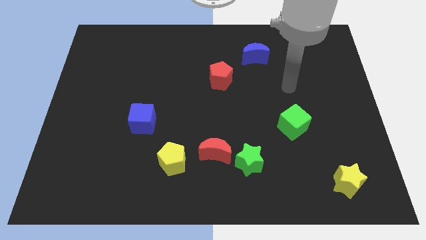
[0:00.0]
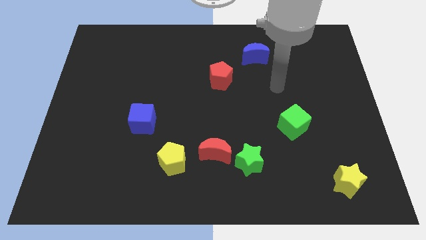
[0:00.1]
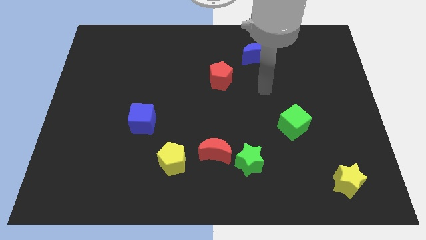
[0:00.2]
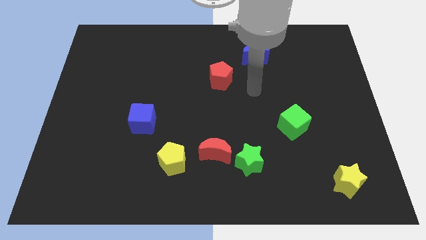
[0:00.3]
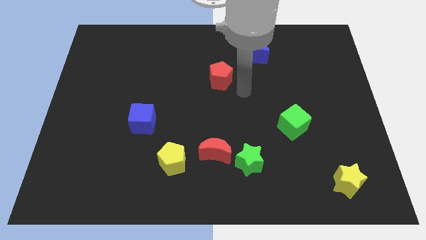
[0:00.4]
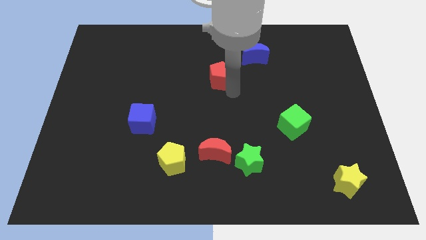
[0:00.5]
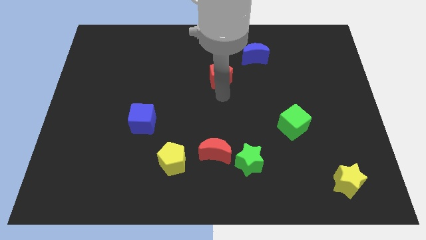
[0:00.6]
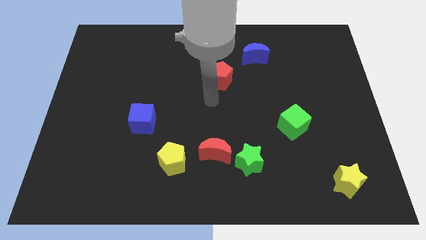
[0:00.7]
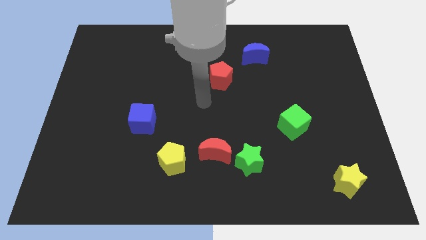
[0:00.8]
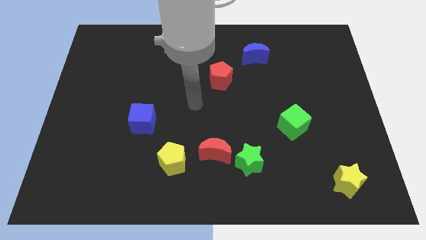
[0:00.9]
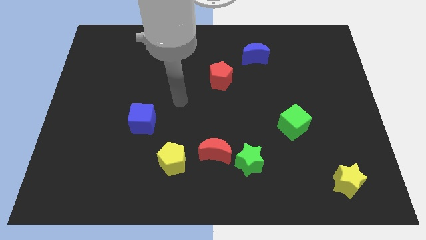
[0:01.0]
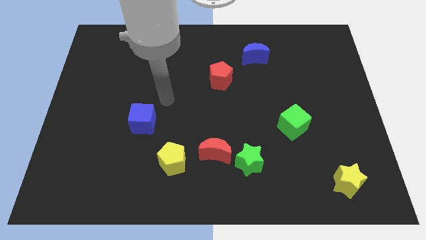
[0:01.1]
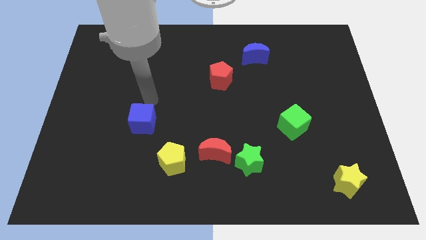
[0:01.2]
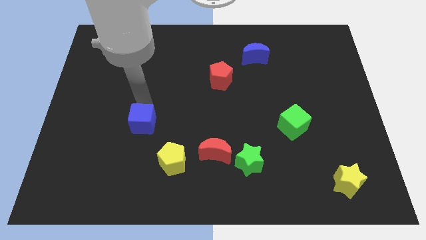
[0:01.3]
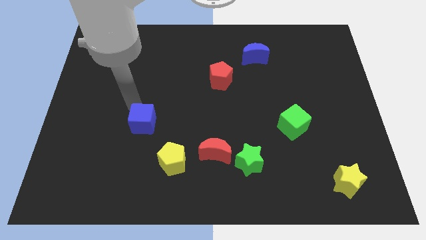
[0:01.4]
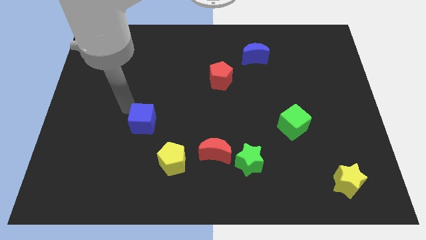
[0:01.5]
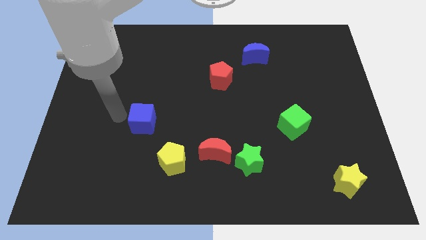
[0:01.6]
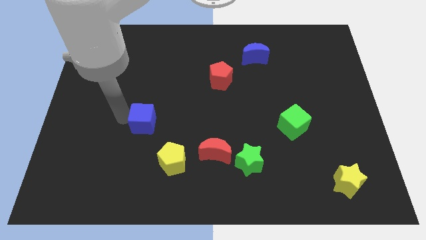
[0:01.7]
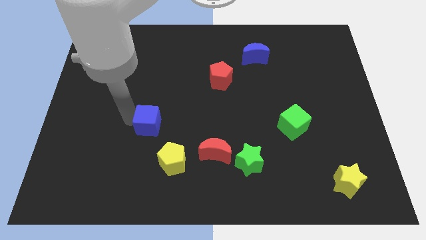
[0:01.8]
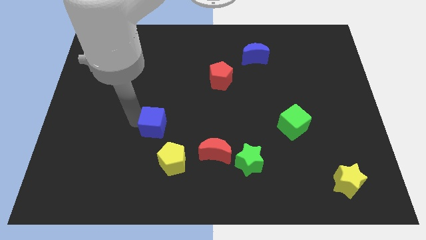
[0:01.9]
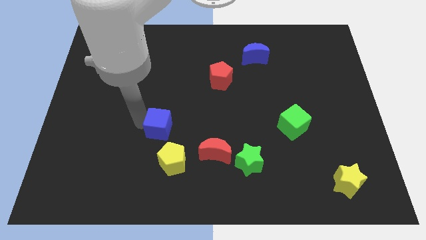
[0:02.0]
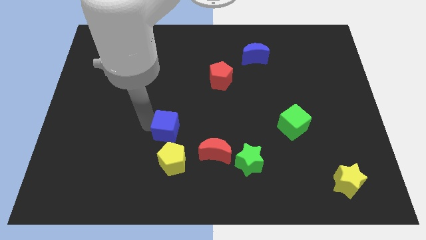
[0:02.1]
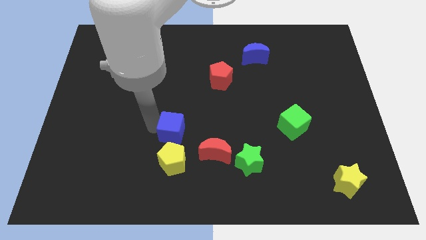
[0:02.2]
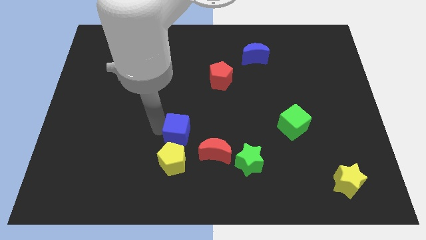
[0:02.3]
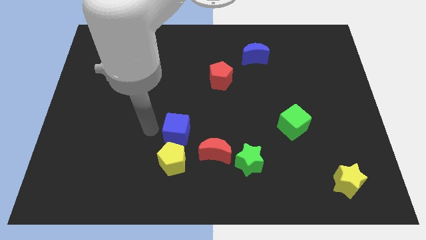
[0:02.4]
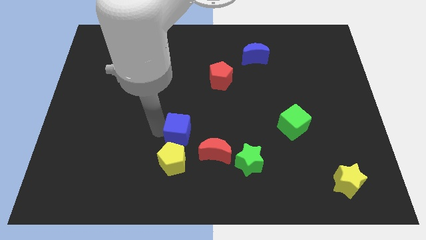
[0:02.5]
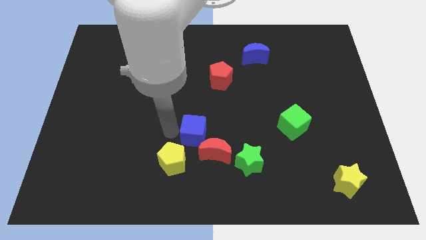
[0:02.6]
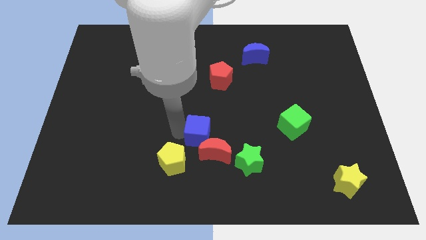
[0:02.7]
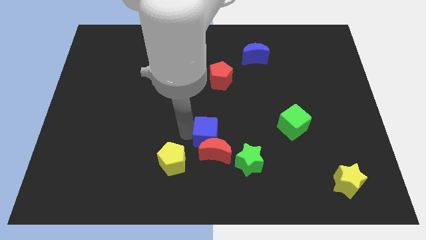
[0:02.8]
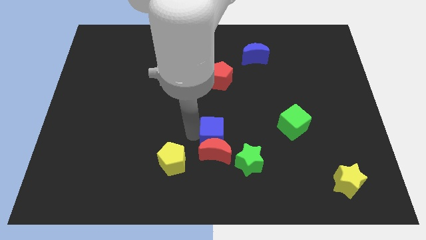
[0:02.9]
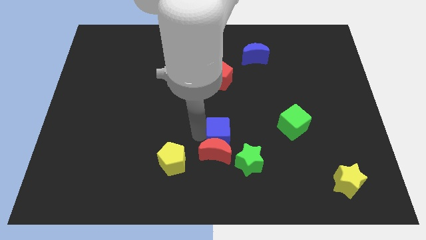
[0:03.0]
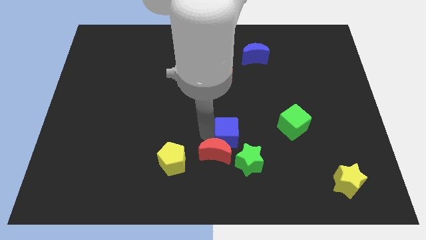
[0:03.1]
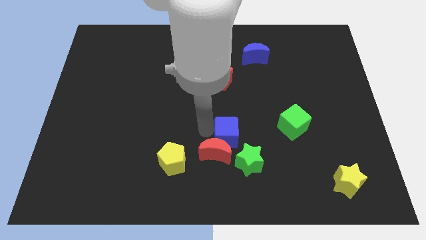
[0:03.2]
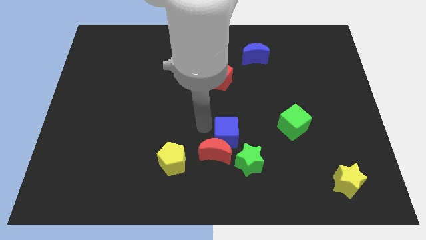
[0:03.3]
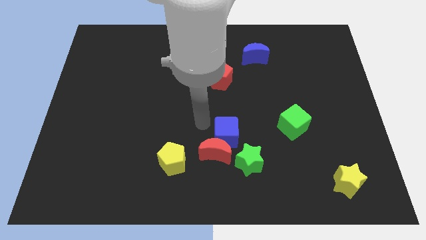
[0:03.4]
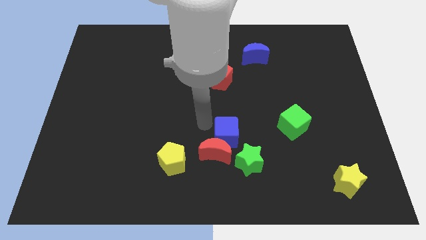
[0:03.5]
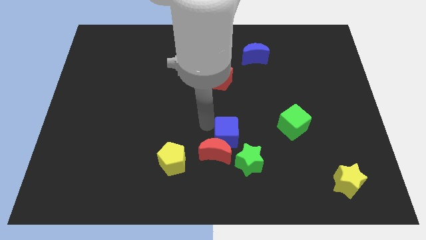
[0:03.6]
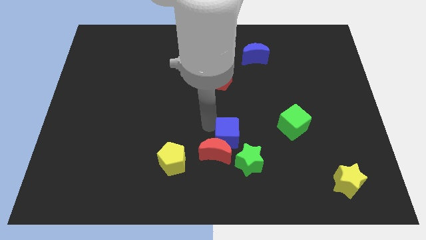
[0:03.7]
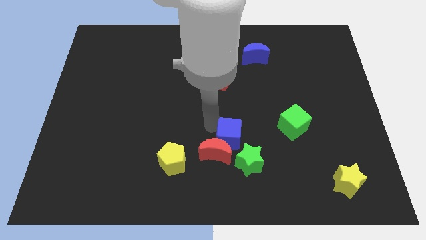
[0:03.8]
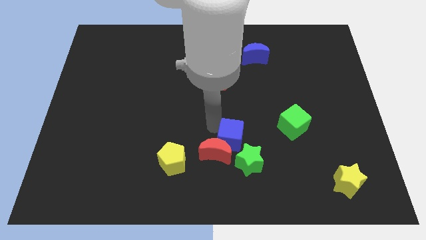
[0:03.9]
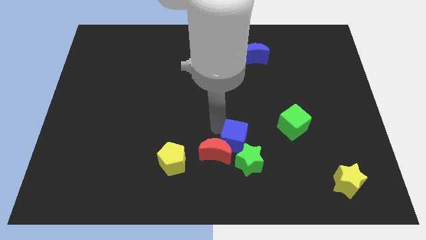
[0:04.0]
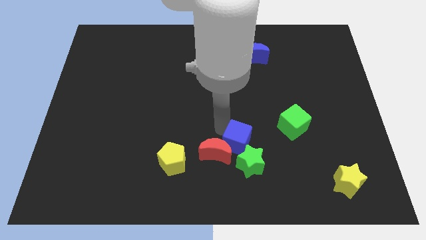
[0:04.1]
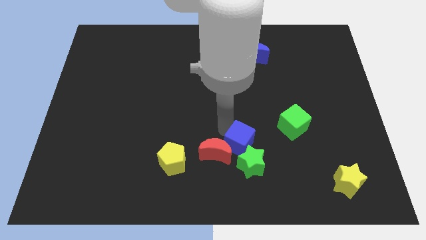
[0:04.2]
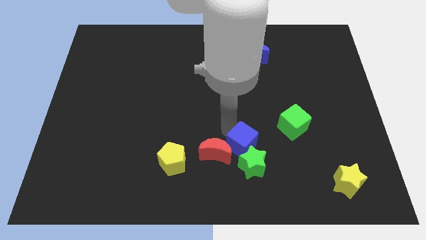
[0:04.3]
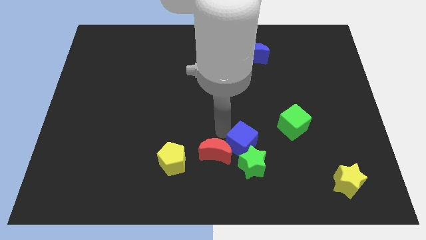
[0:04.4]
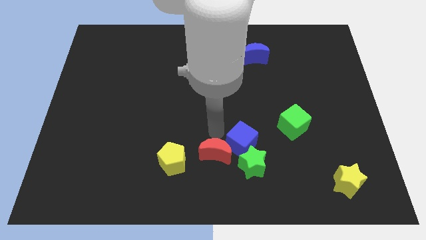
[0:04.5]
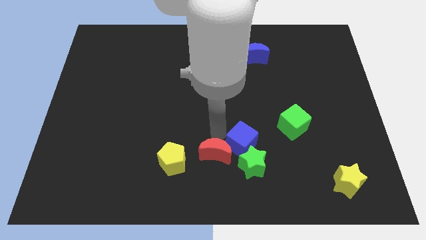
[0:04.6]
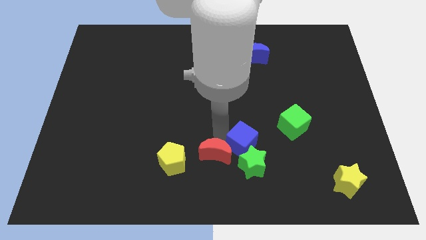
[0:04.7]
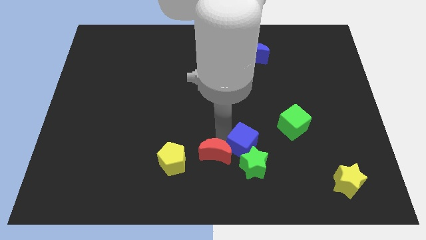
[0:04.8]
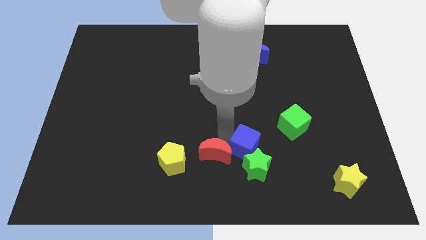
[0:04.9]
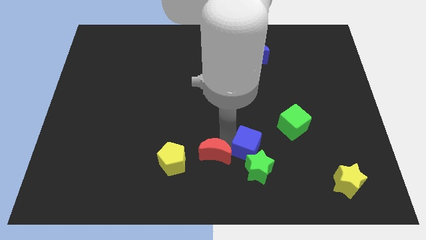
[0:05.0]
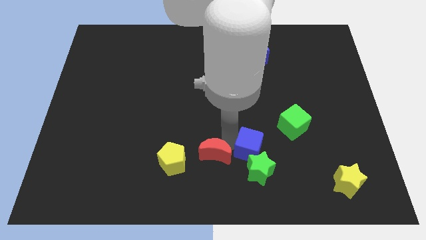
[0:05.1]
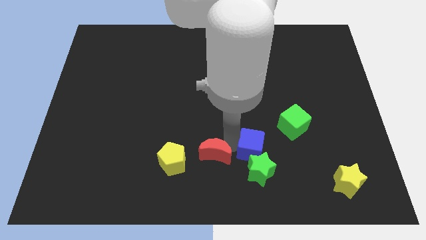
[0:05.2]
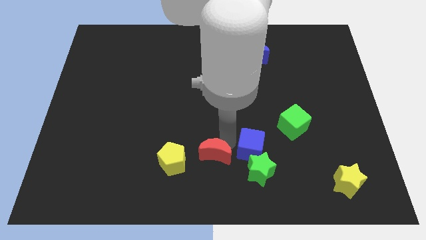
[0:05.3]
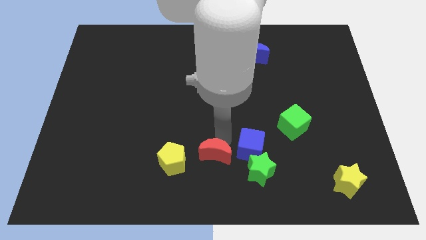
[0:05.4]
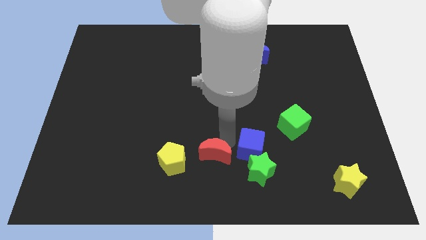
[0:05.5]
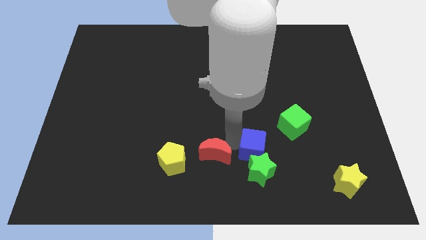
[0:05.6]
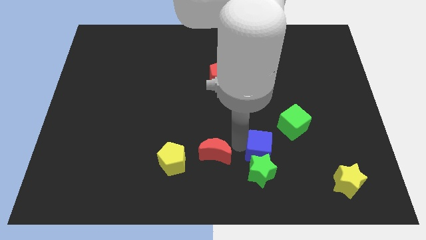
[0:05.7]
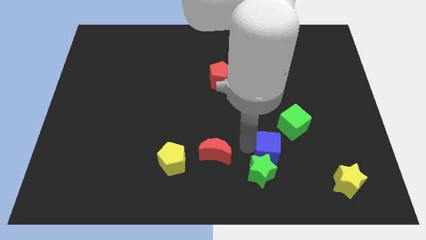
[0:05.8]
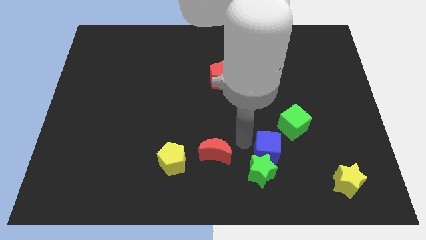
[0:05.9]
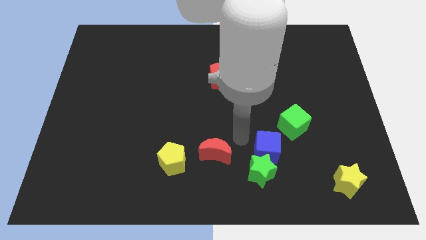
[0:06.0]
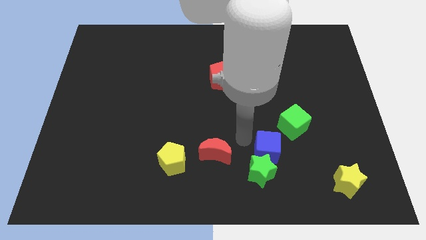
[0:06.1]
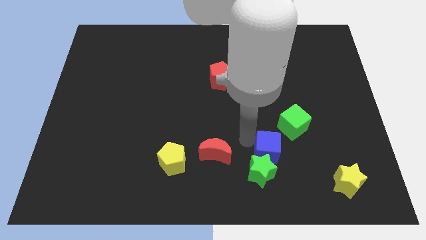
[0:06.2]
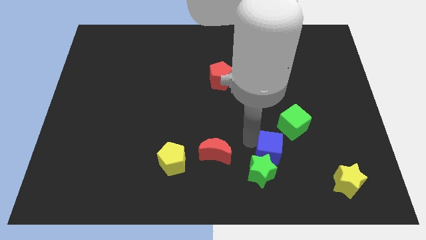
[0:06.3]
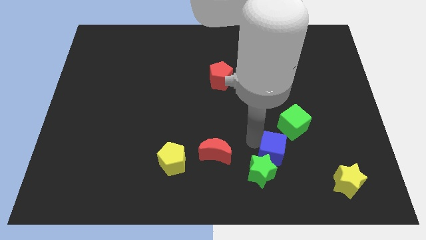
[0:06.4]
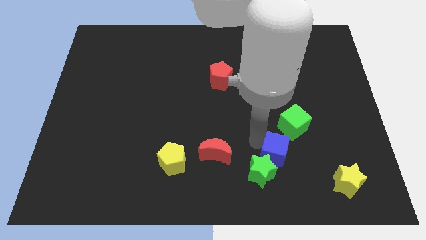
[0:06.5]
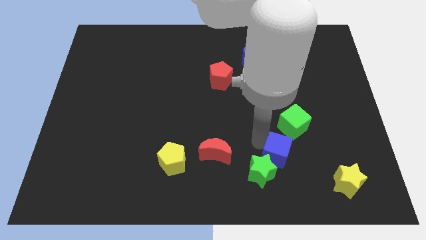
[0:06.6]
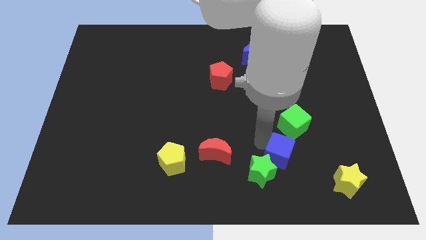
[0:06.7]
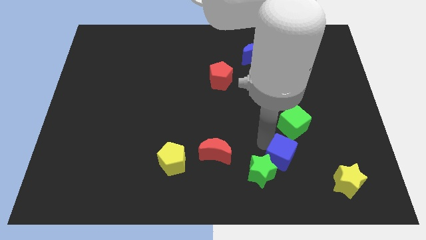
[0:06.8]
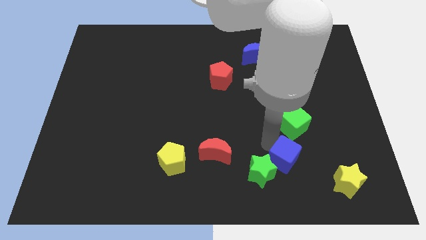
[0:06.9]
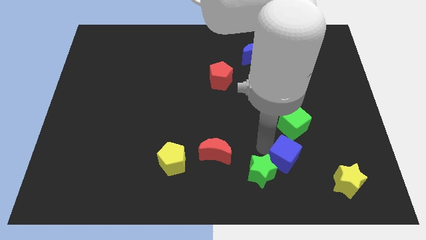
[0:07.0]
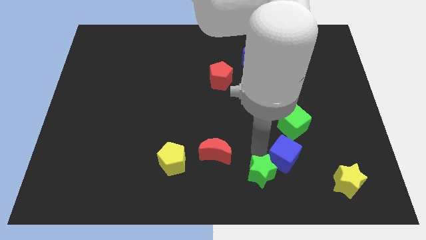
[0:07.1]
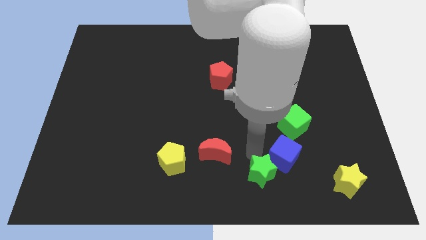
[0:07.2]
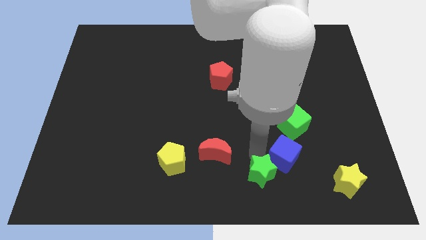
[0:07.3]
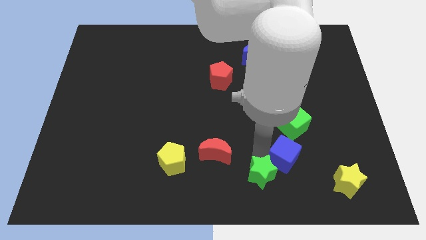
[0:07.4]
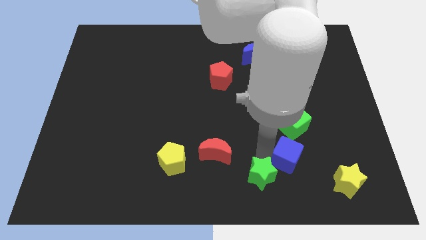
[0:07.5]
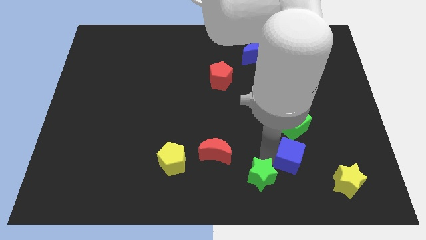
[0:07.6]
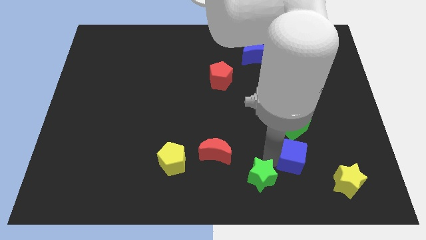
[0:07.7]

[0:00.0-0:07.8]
slide the blue cube diagonally up and to the left of the yellow star
